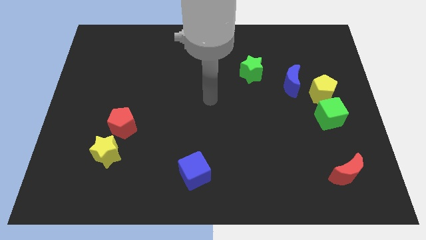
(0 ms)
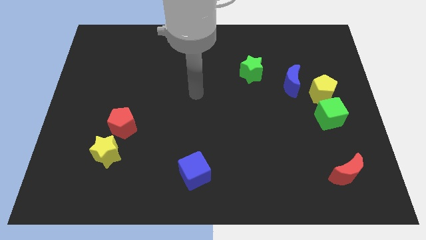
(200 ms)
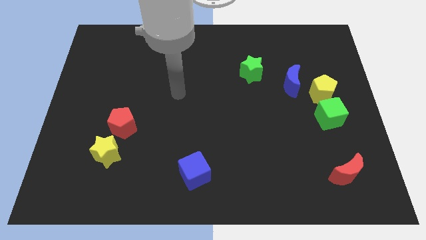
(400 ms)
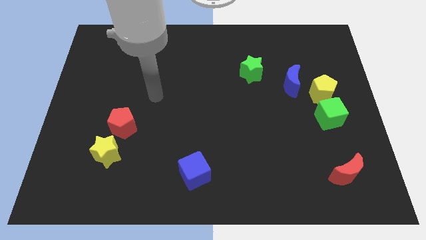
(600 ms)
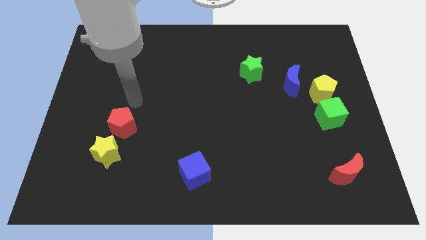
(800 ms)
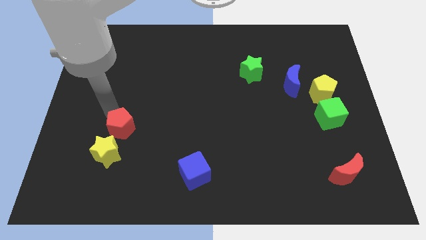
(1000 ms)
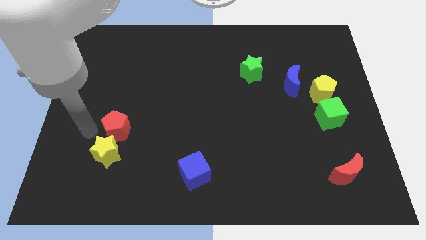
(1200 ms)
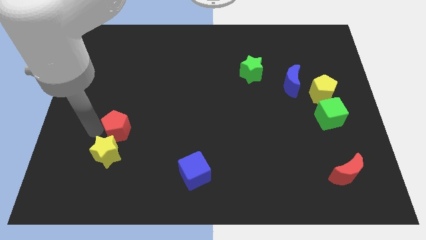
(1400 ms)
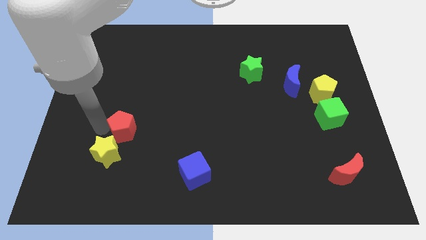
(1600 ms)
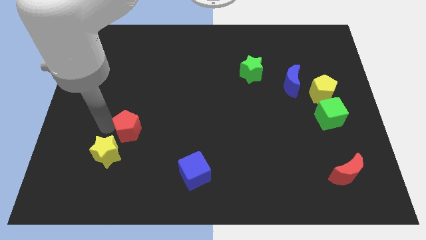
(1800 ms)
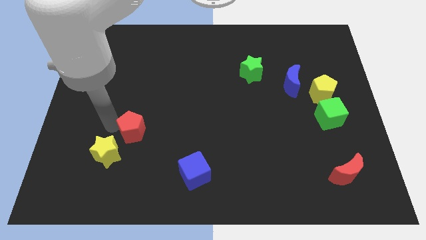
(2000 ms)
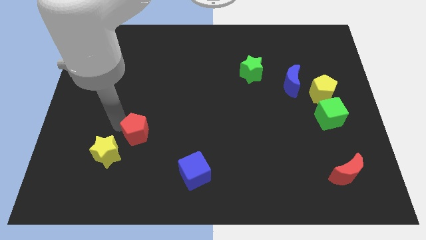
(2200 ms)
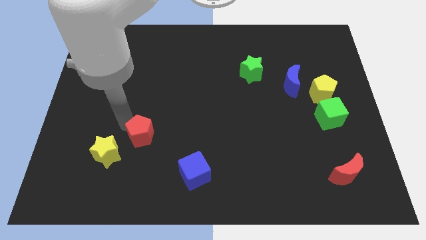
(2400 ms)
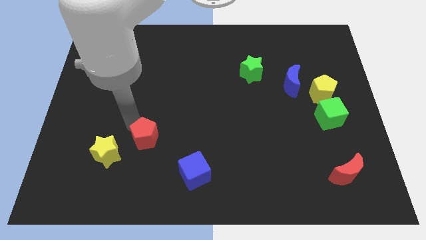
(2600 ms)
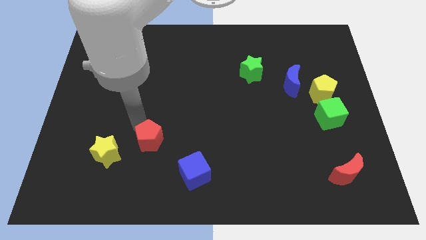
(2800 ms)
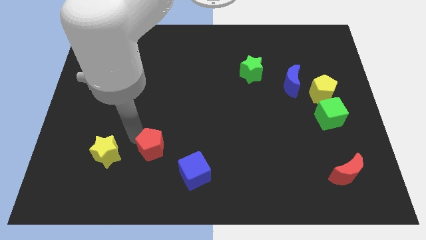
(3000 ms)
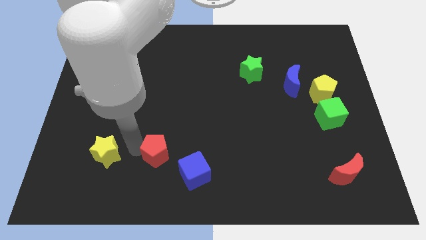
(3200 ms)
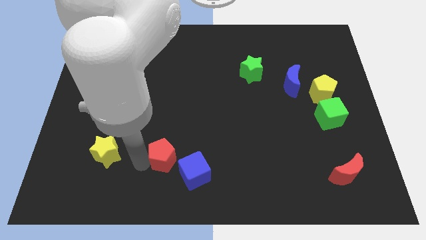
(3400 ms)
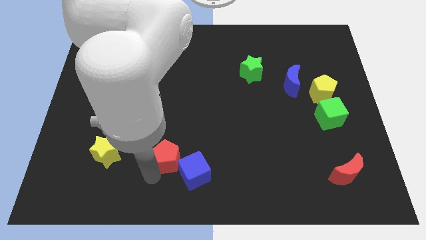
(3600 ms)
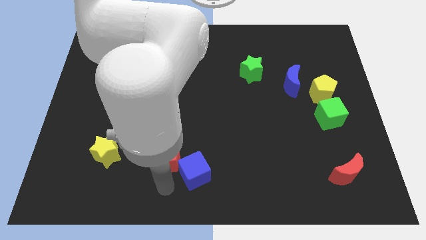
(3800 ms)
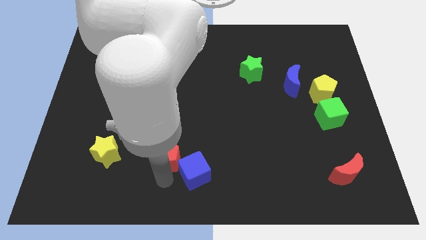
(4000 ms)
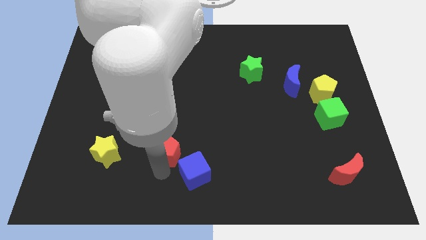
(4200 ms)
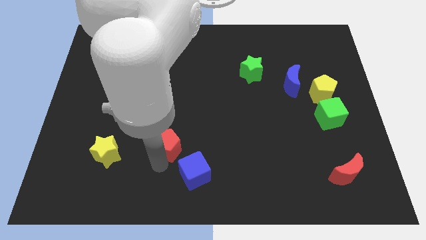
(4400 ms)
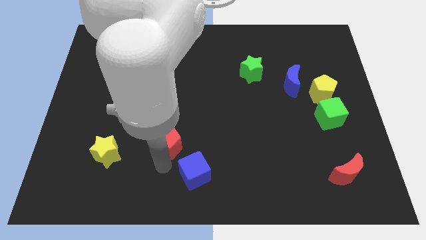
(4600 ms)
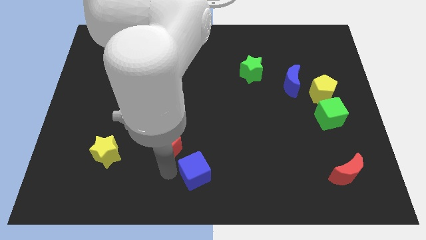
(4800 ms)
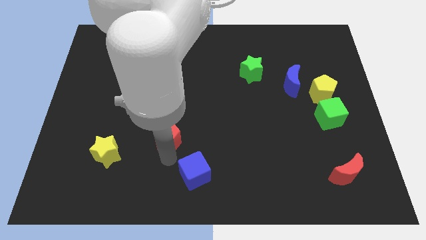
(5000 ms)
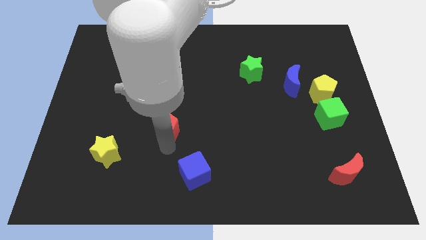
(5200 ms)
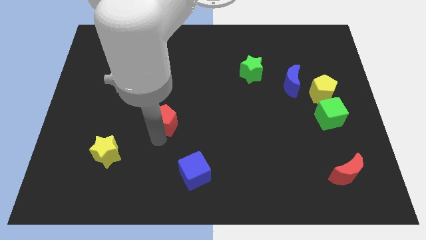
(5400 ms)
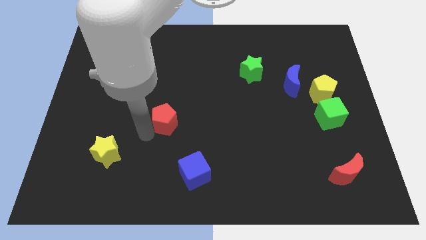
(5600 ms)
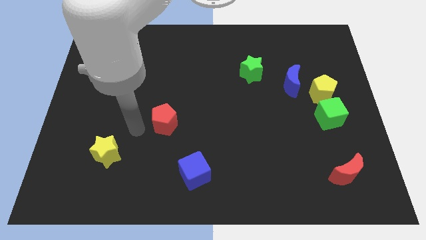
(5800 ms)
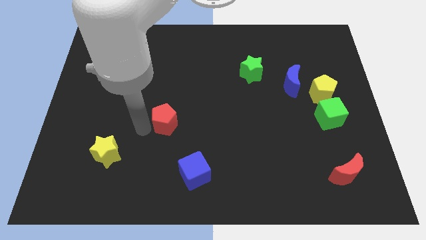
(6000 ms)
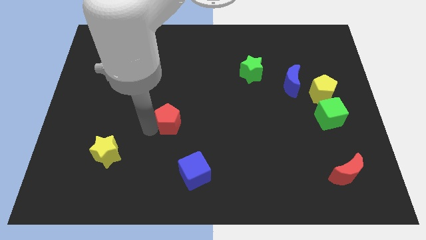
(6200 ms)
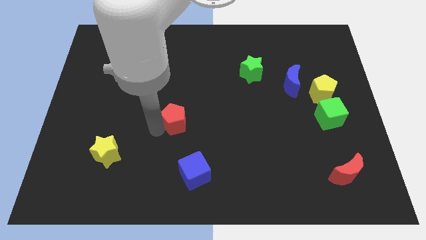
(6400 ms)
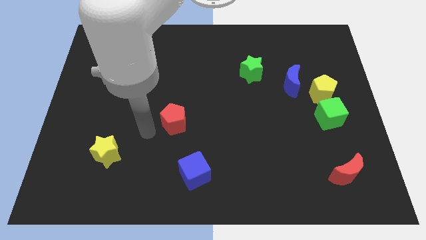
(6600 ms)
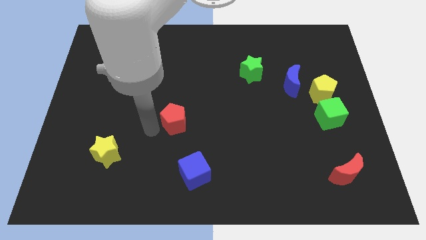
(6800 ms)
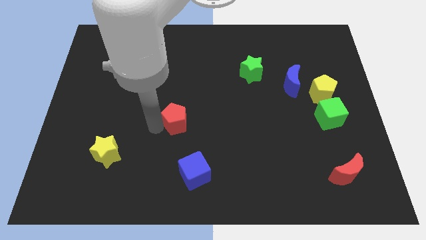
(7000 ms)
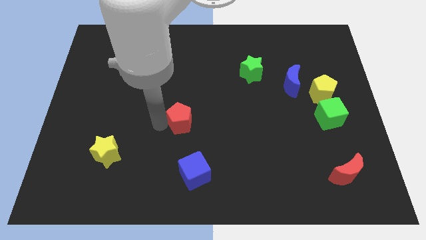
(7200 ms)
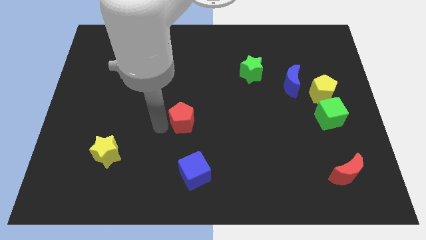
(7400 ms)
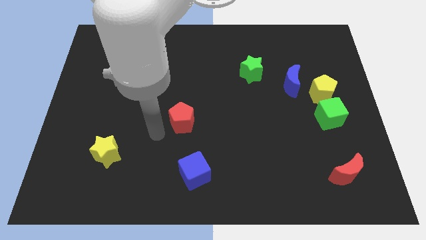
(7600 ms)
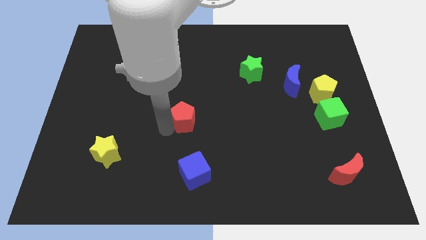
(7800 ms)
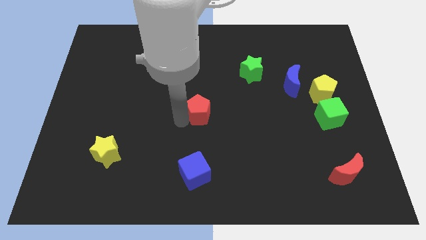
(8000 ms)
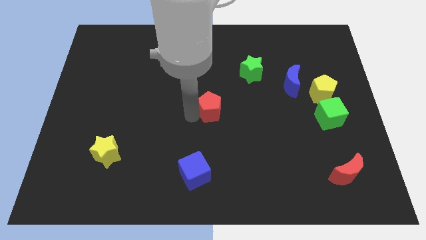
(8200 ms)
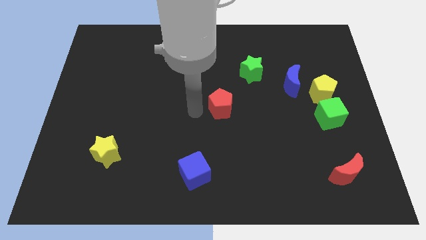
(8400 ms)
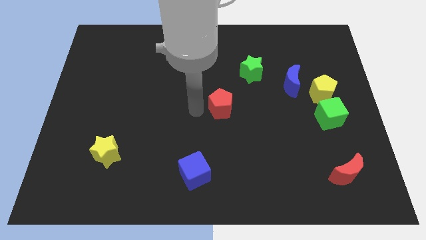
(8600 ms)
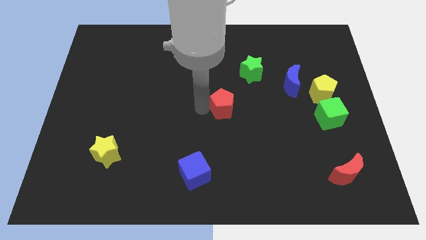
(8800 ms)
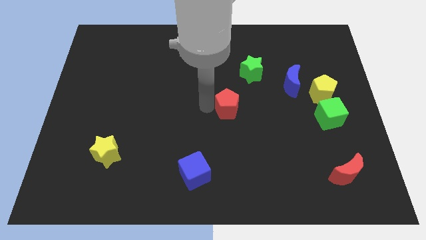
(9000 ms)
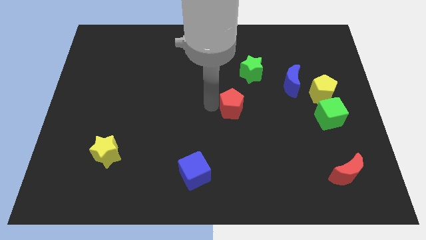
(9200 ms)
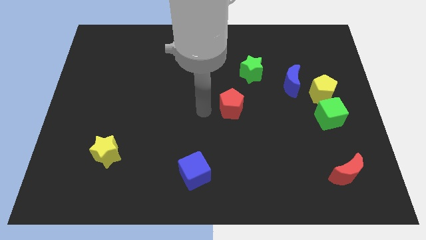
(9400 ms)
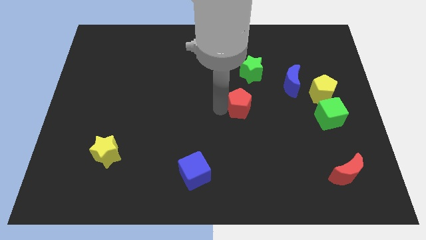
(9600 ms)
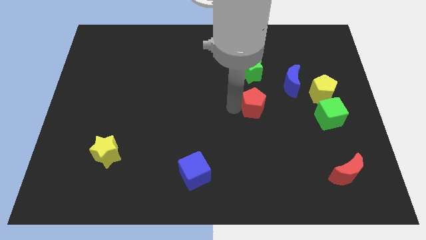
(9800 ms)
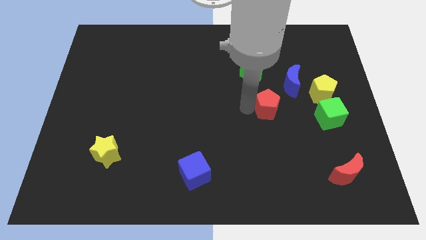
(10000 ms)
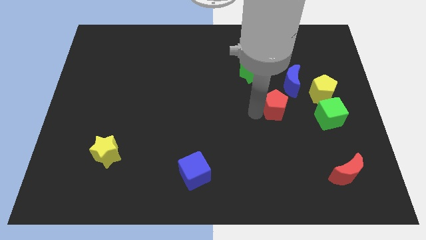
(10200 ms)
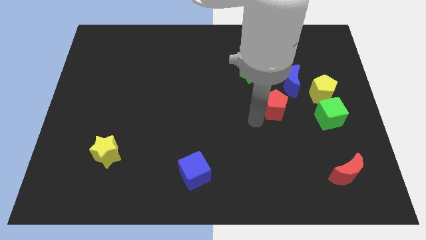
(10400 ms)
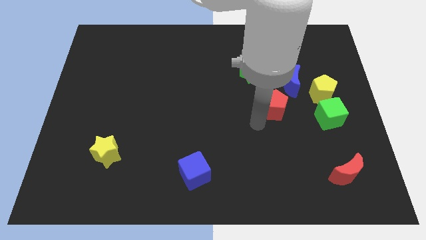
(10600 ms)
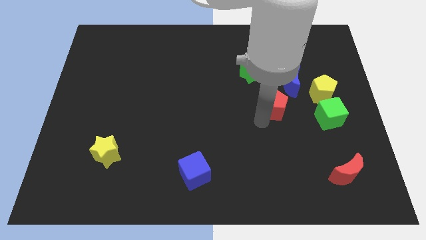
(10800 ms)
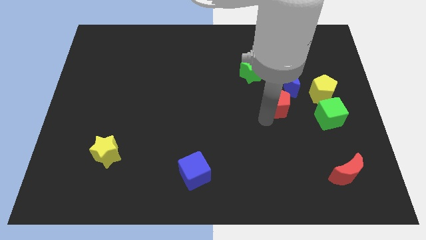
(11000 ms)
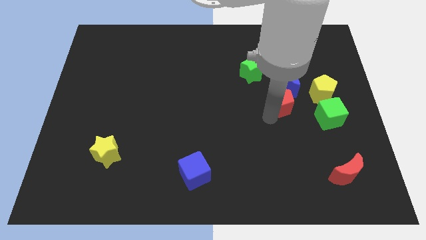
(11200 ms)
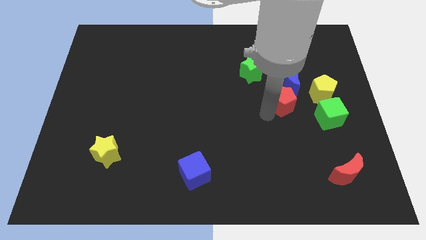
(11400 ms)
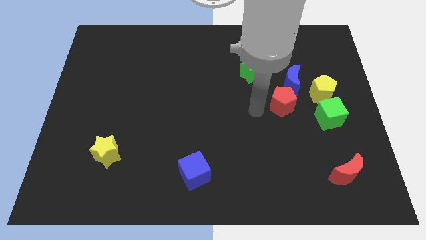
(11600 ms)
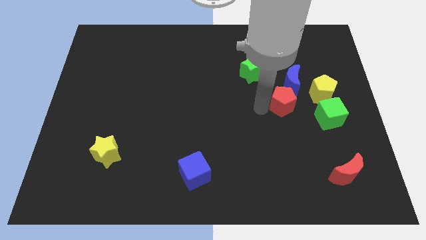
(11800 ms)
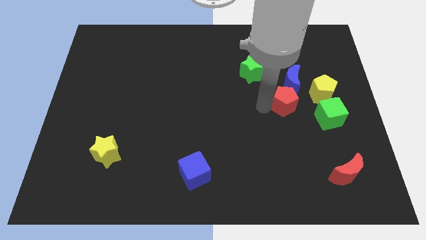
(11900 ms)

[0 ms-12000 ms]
slide the red pentagon diagonally up and to the left of the green cube
